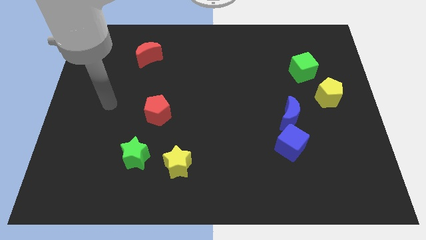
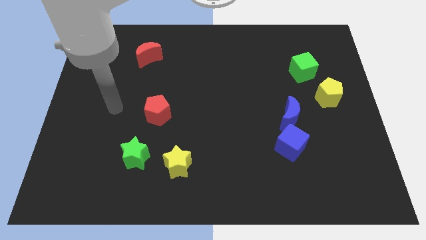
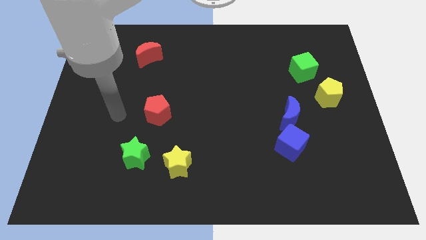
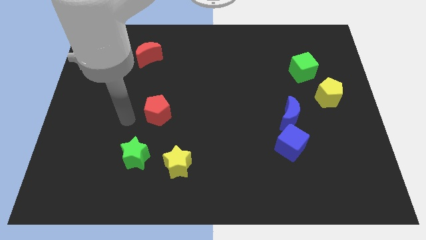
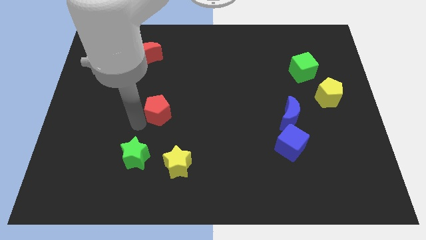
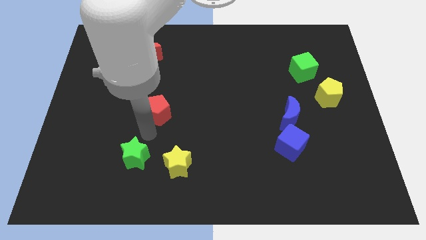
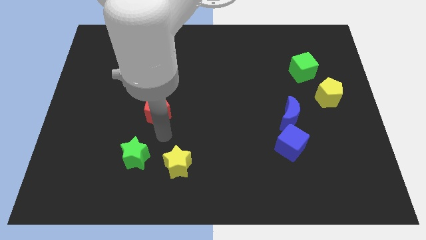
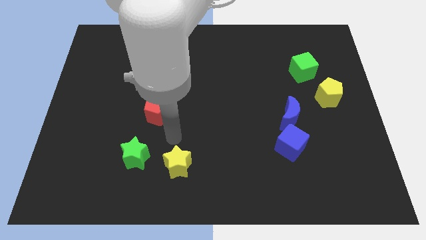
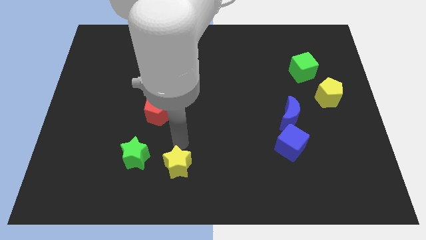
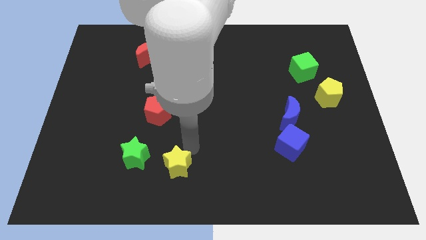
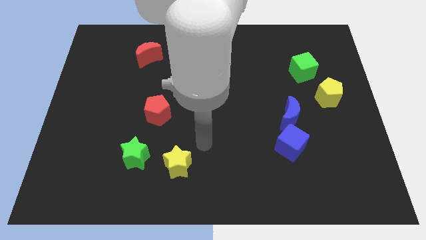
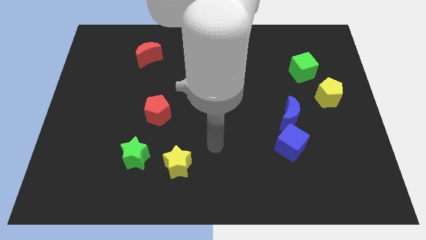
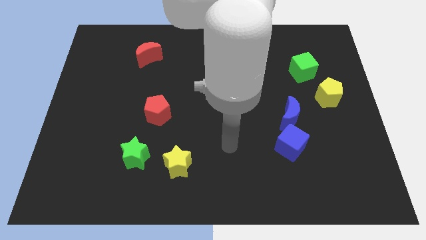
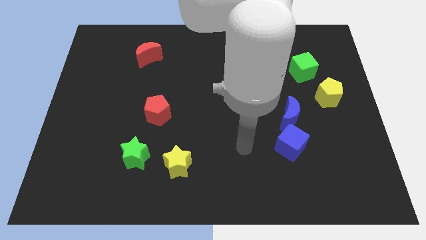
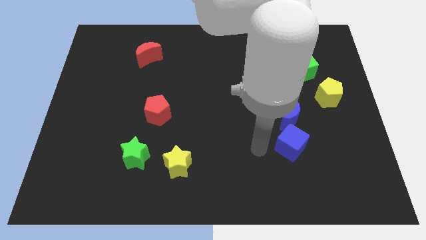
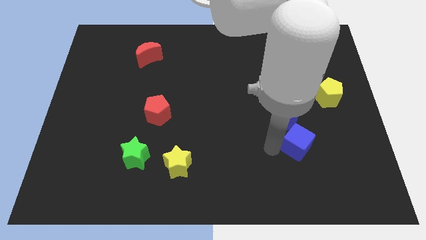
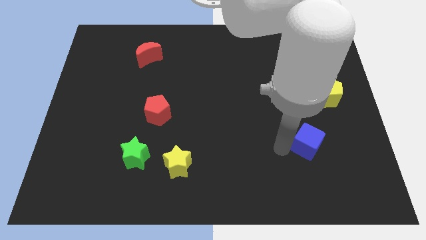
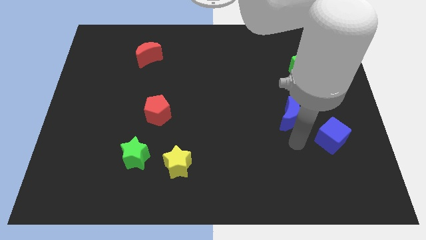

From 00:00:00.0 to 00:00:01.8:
separate the blue moon from the blue cube

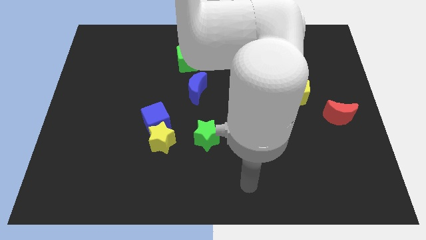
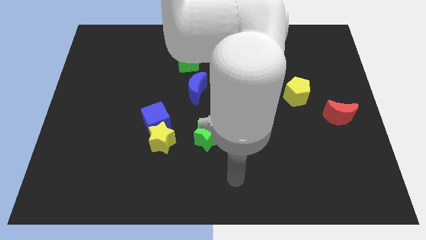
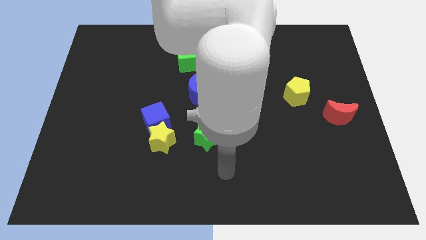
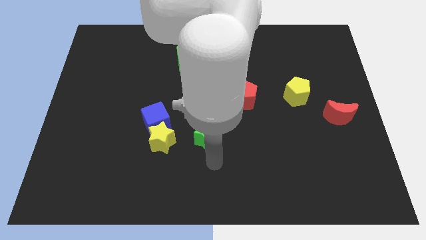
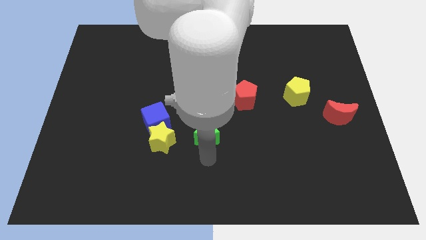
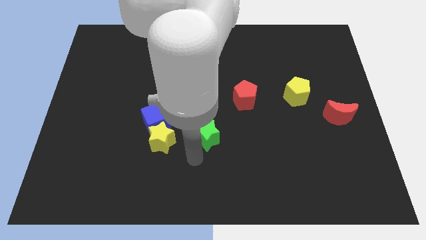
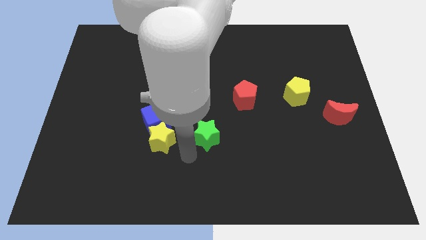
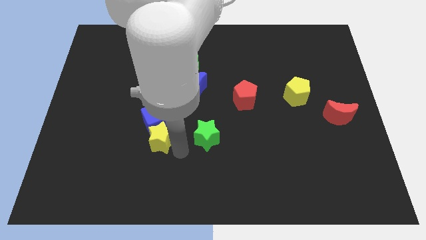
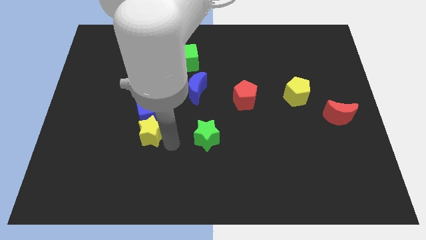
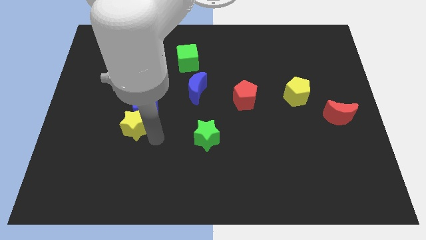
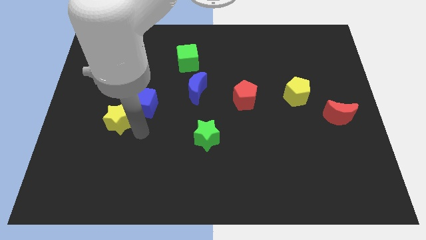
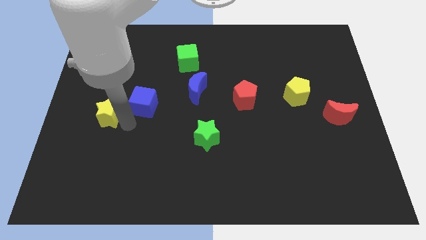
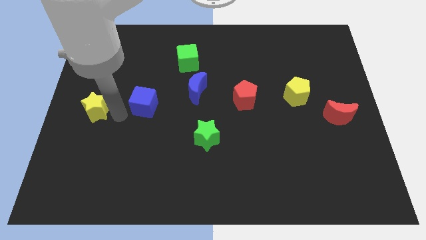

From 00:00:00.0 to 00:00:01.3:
pull the blue cube apart from the yellow star

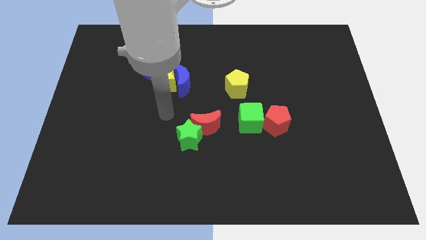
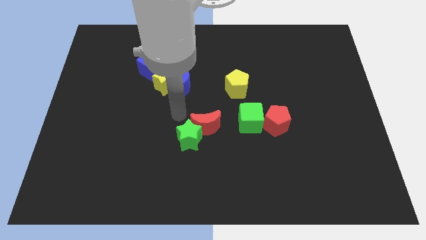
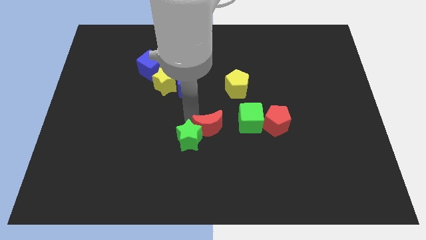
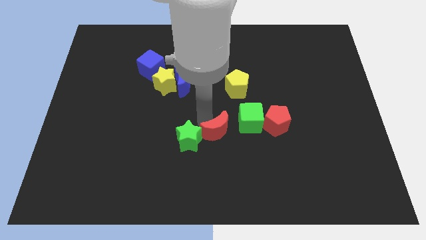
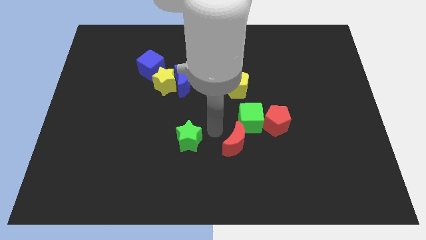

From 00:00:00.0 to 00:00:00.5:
pull the green star apart from the red moon

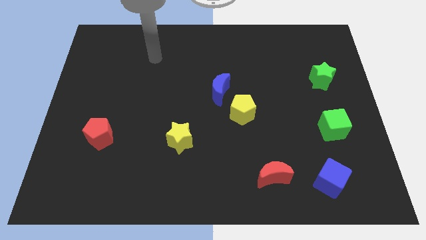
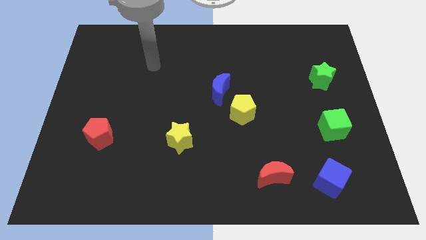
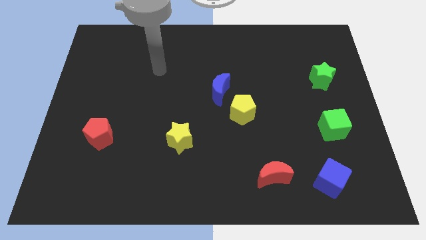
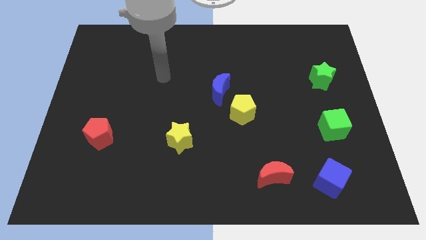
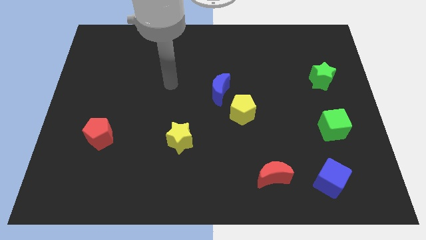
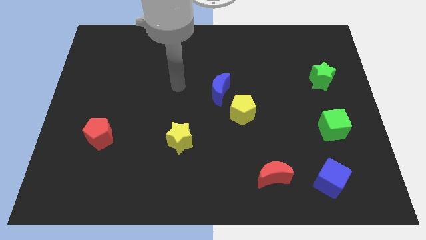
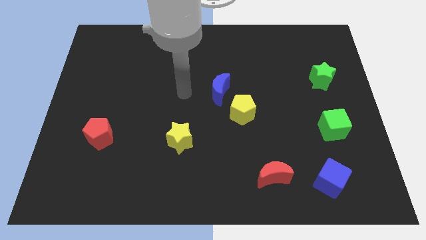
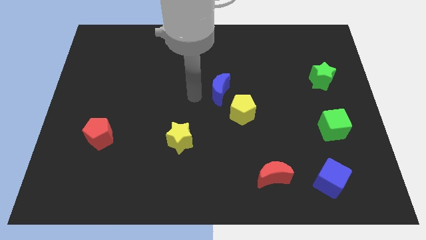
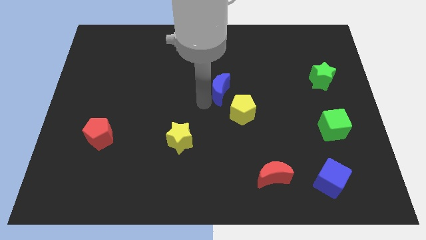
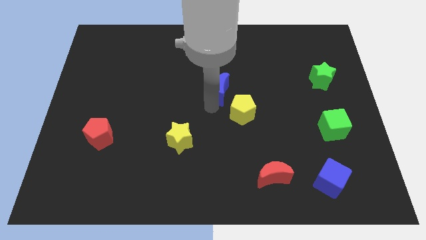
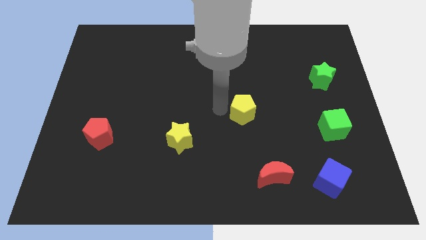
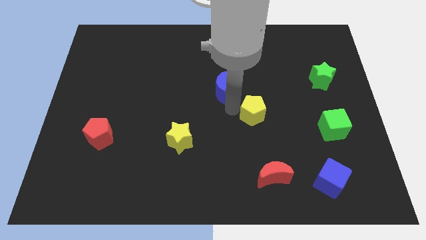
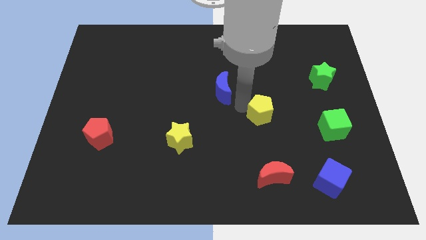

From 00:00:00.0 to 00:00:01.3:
move the blue moon away from the yellow pentagon

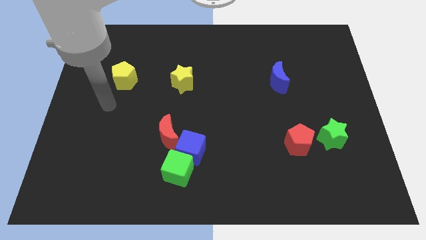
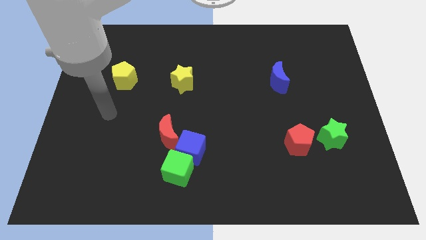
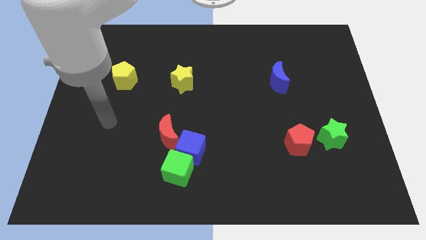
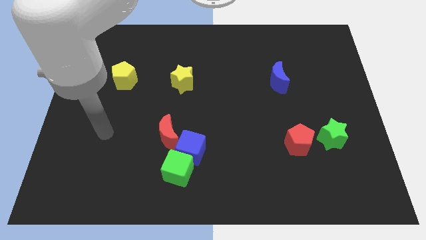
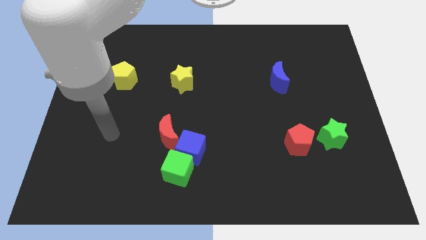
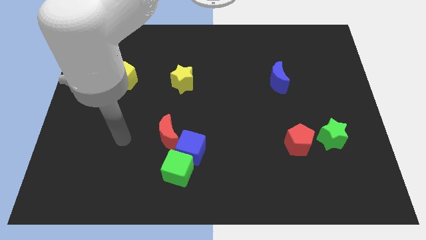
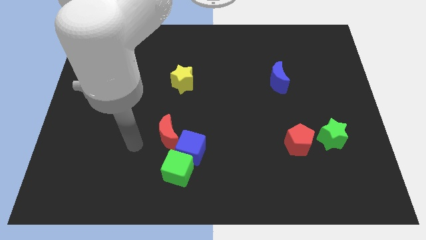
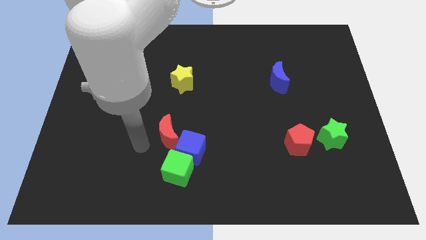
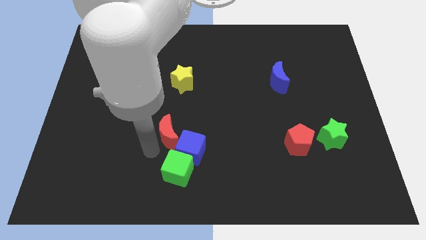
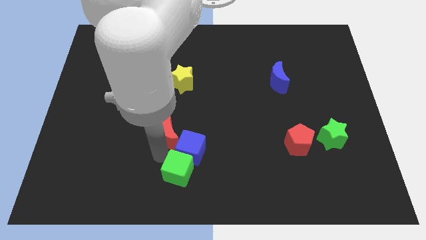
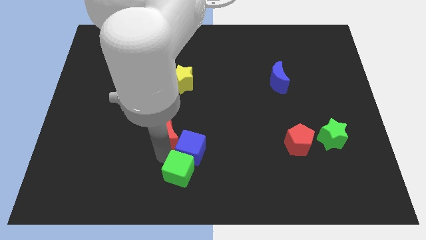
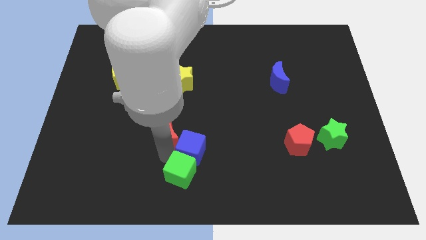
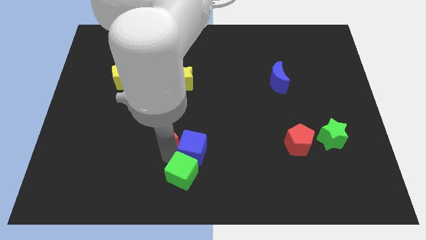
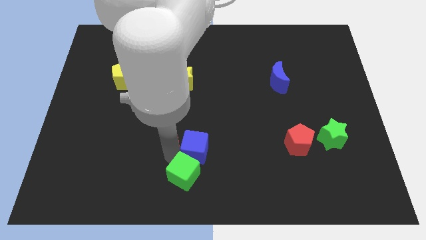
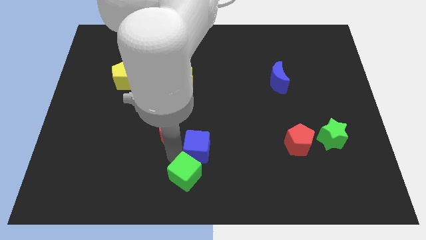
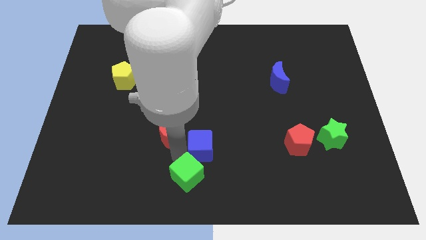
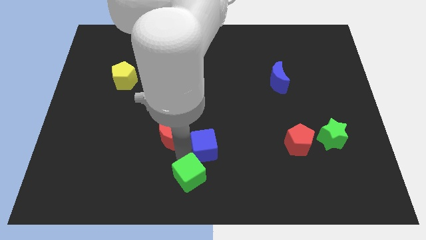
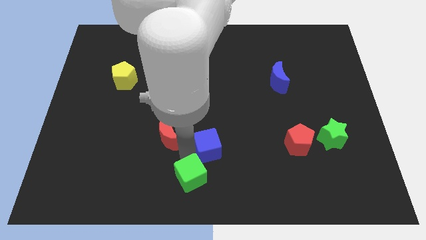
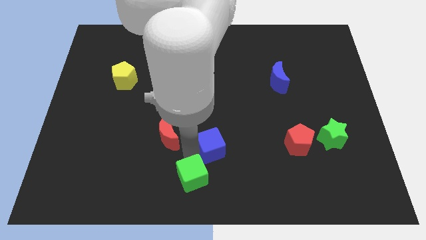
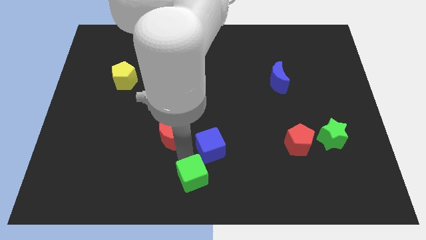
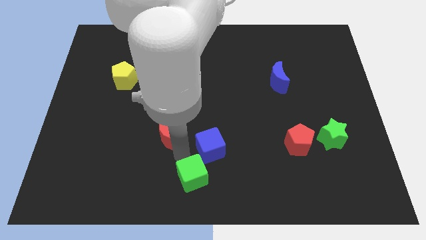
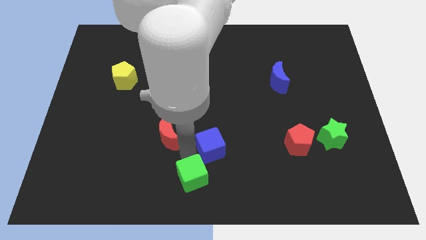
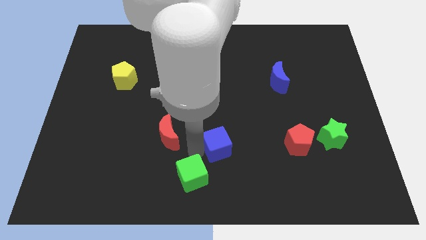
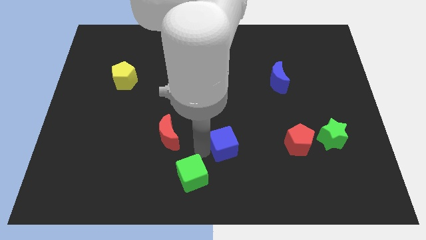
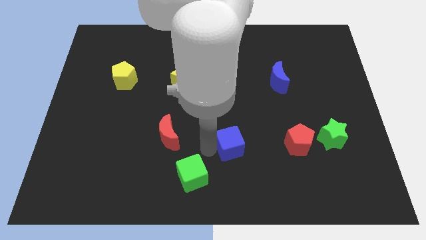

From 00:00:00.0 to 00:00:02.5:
pull the blue cube apart from the green cube and red moon

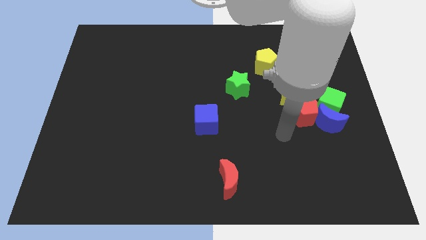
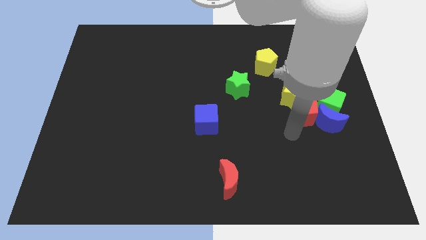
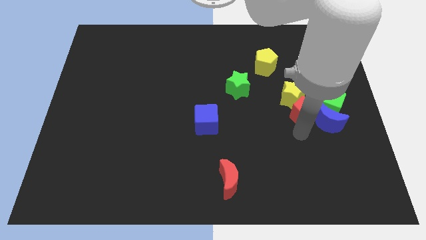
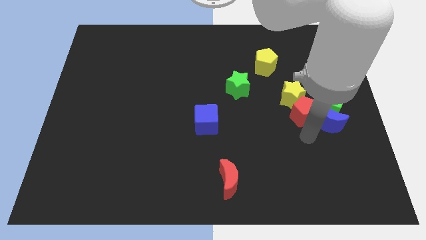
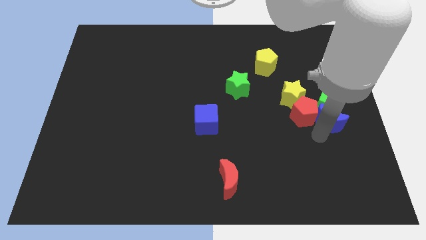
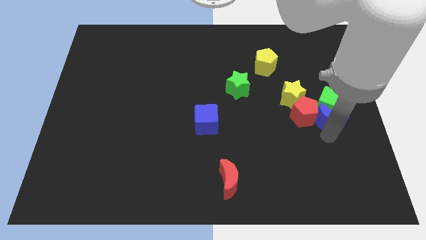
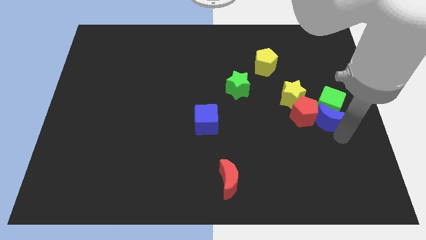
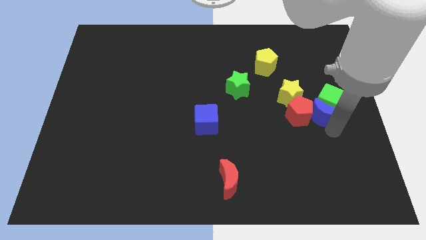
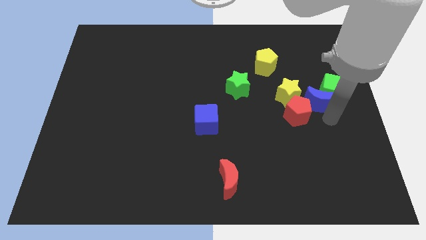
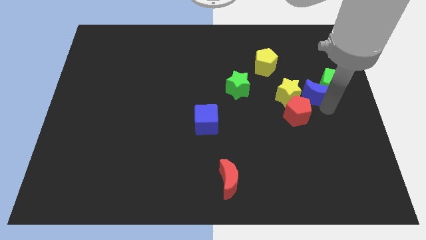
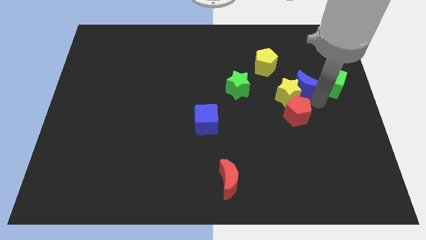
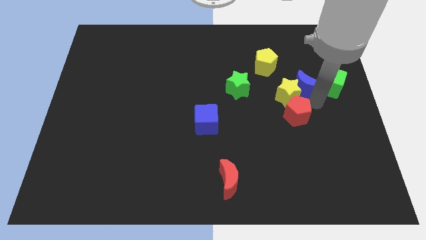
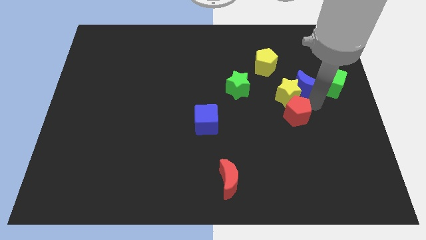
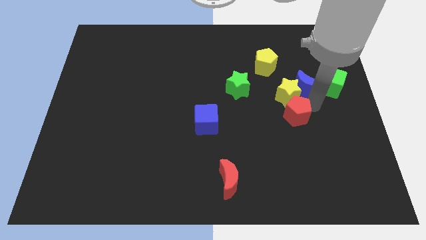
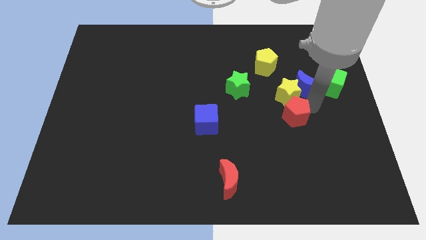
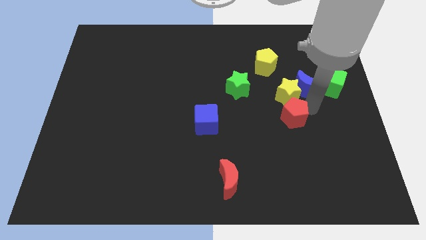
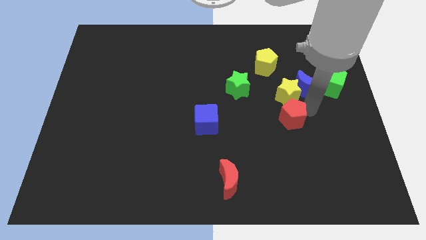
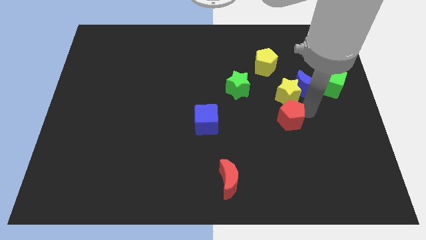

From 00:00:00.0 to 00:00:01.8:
move the red pentagon away from the clump

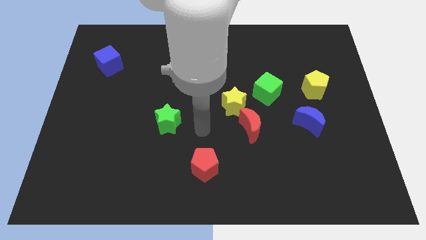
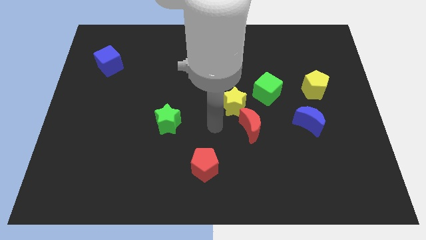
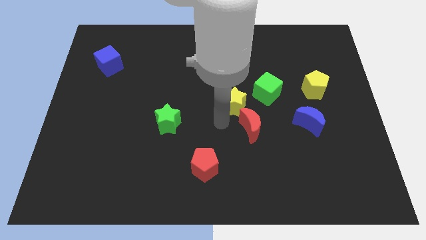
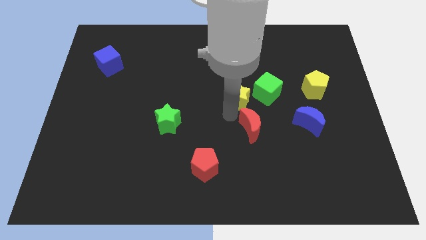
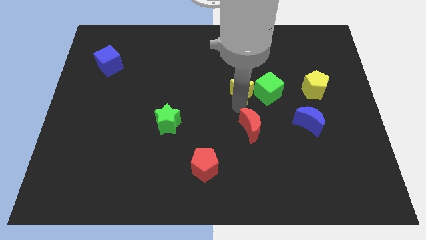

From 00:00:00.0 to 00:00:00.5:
move the red moon away from the yellow star
